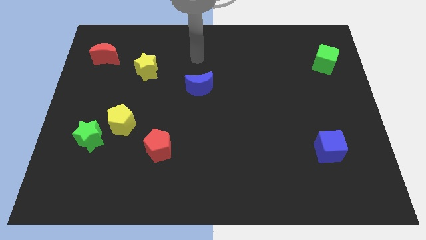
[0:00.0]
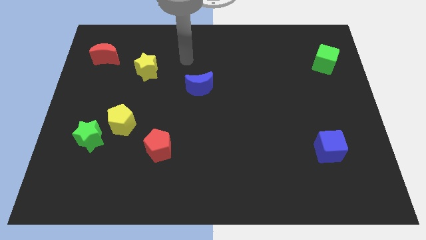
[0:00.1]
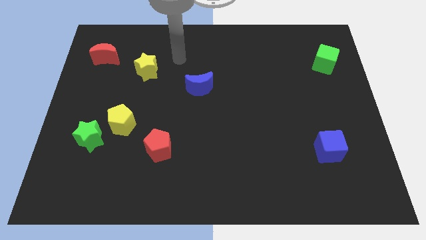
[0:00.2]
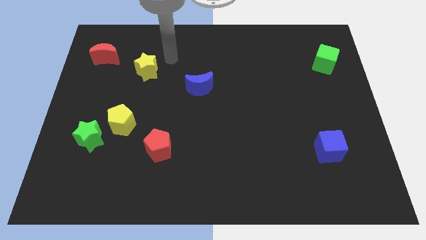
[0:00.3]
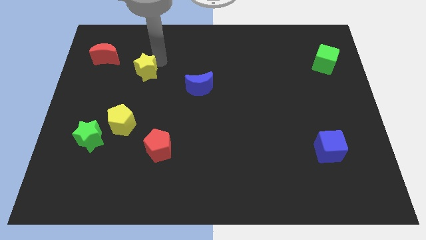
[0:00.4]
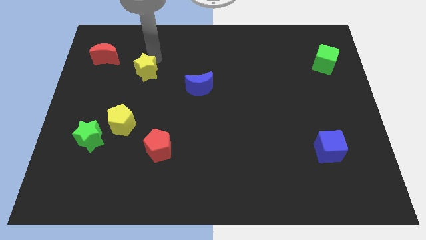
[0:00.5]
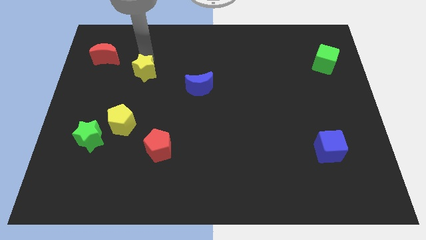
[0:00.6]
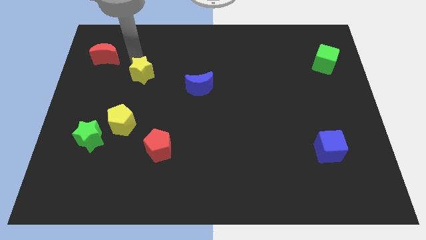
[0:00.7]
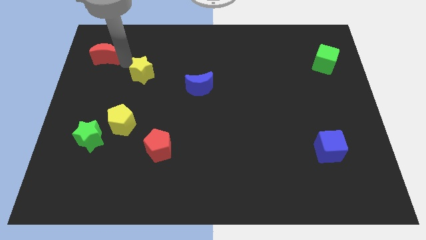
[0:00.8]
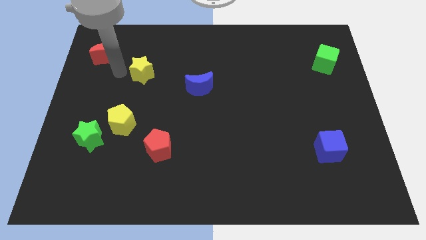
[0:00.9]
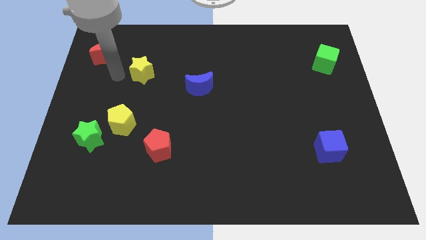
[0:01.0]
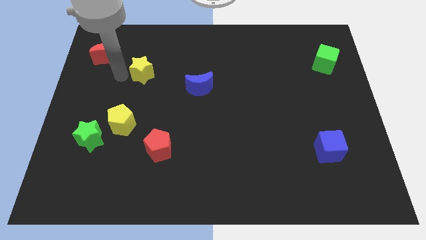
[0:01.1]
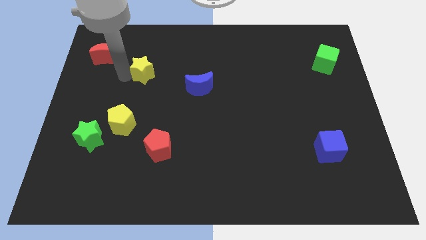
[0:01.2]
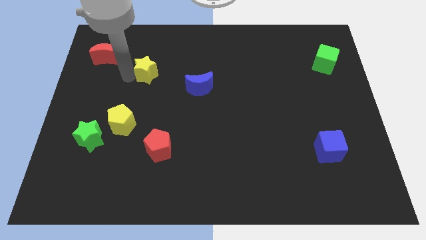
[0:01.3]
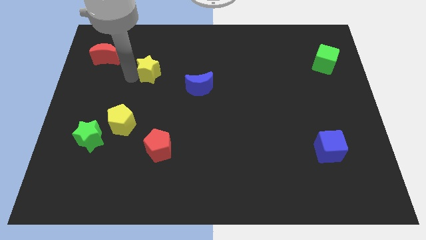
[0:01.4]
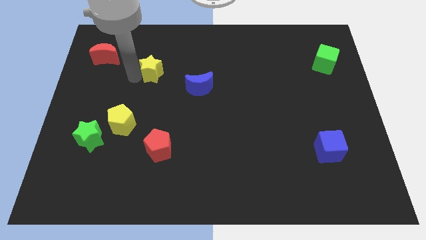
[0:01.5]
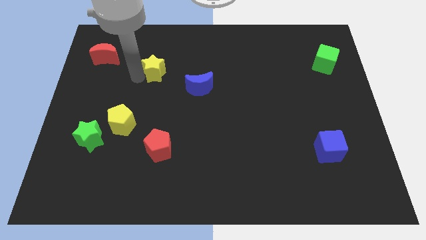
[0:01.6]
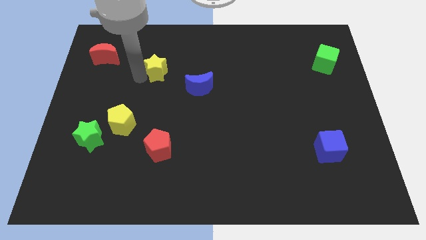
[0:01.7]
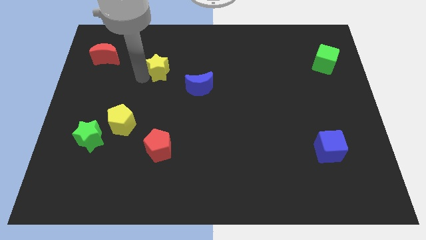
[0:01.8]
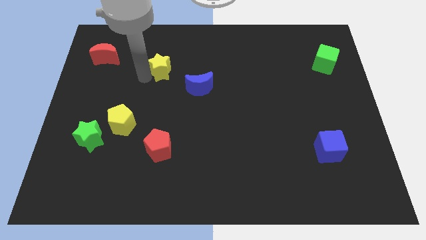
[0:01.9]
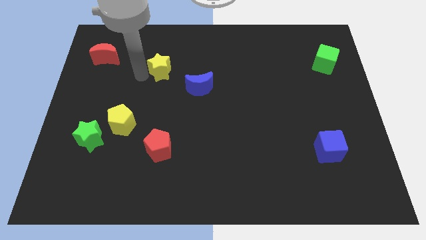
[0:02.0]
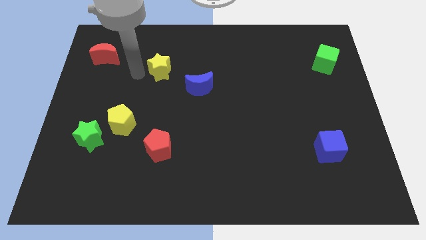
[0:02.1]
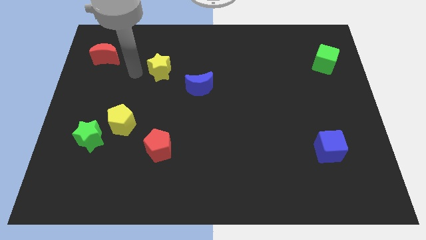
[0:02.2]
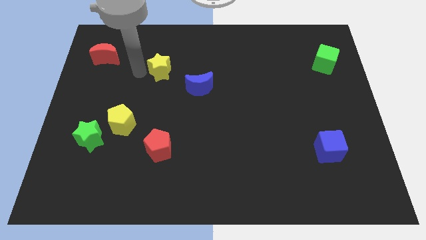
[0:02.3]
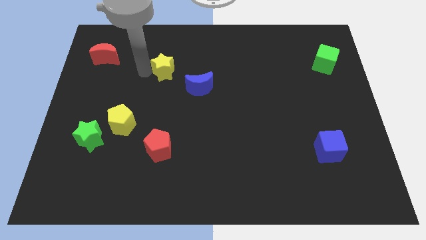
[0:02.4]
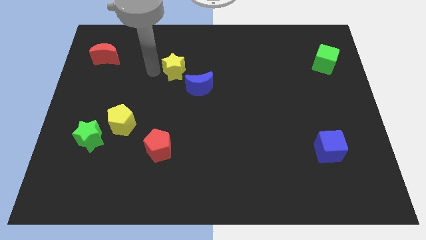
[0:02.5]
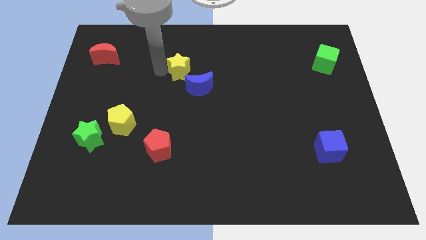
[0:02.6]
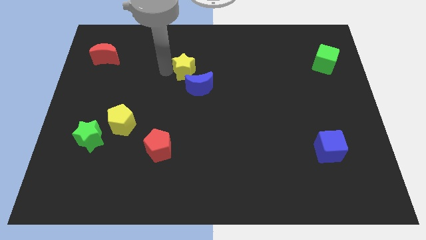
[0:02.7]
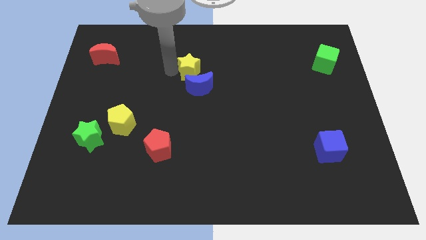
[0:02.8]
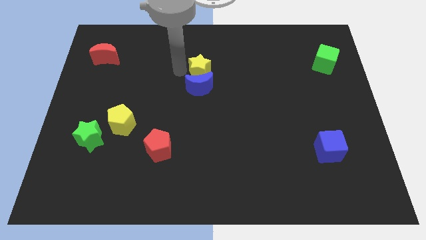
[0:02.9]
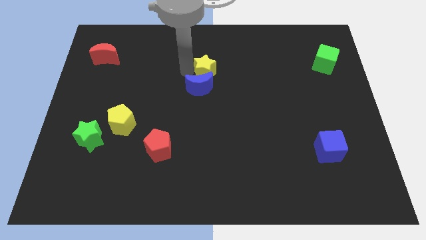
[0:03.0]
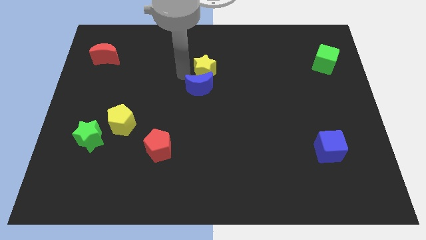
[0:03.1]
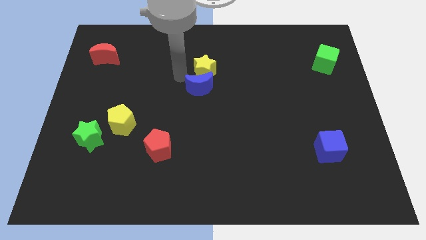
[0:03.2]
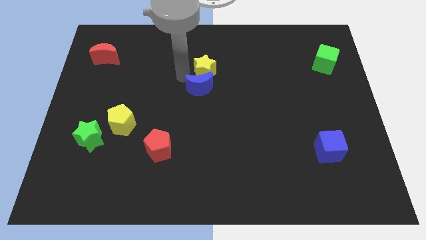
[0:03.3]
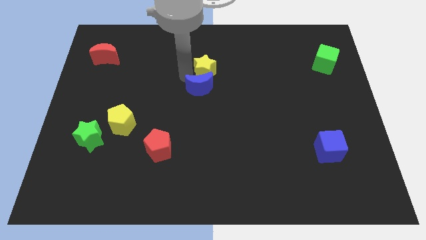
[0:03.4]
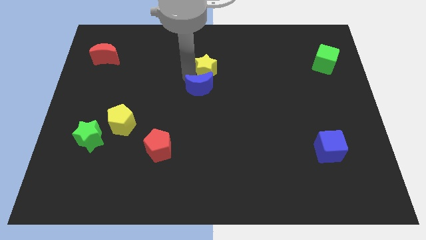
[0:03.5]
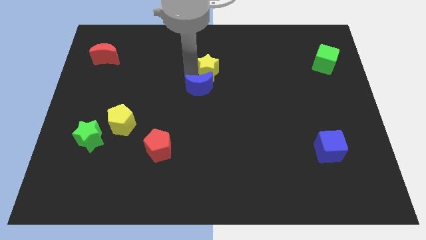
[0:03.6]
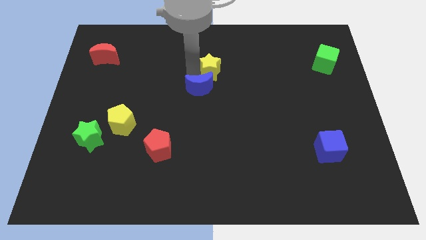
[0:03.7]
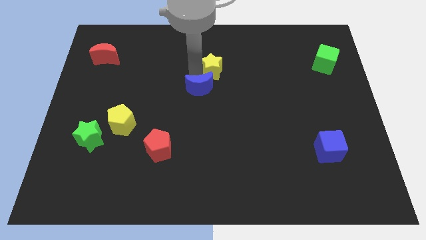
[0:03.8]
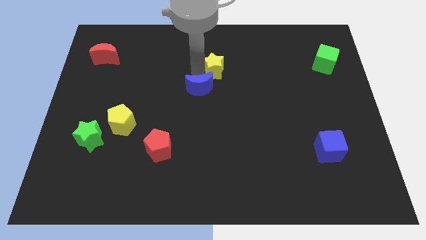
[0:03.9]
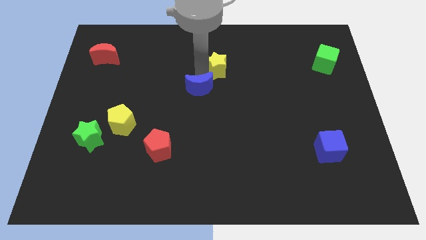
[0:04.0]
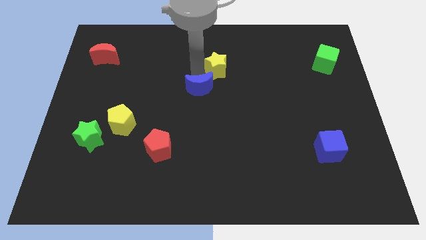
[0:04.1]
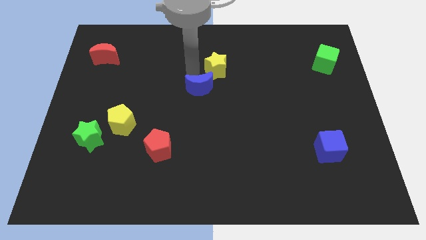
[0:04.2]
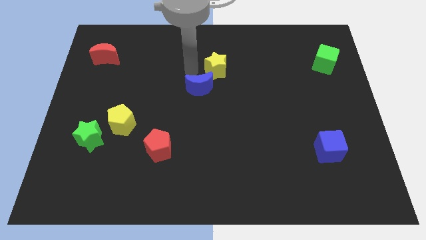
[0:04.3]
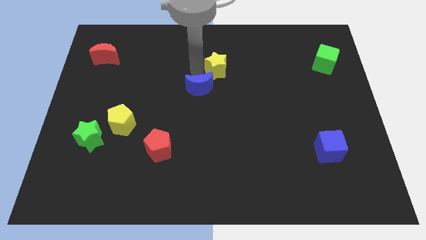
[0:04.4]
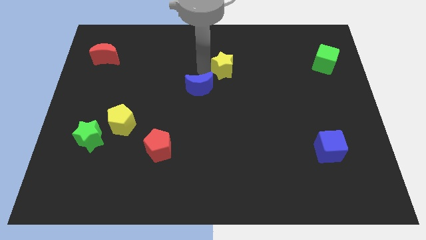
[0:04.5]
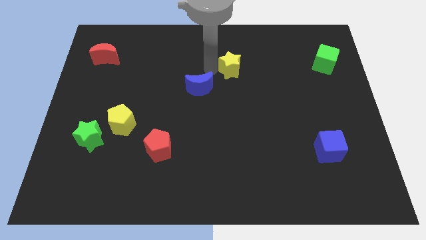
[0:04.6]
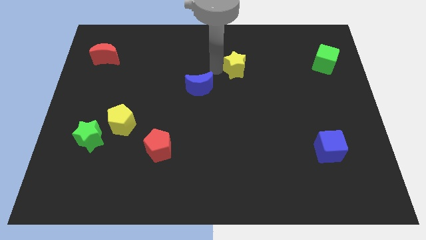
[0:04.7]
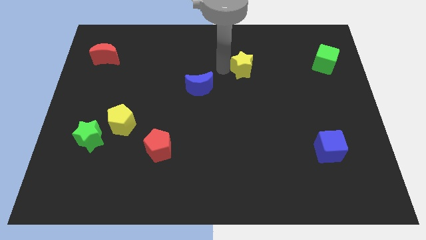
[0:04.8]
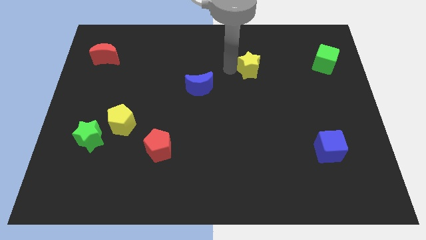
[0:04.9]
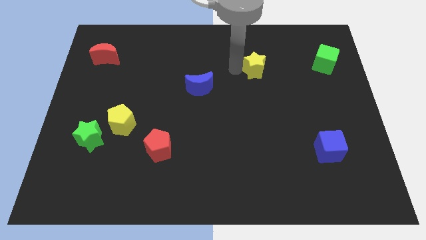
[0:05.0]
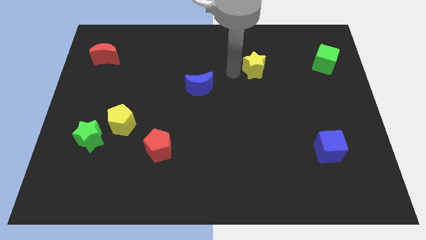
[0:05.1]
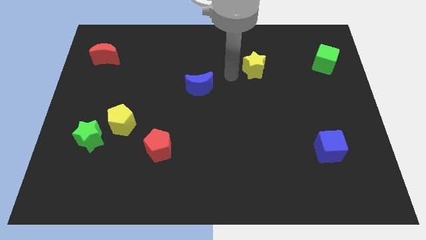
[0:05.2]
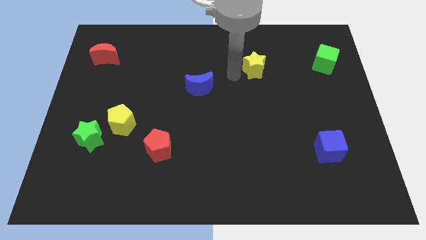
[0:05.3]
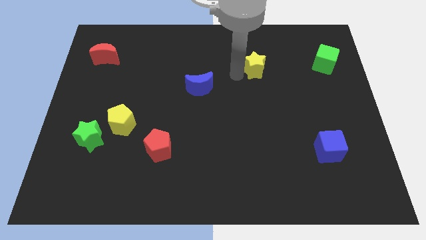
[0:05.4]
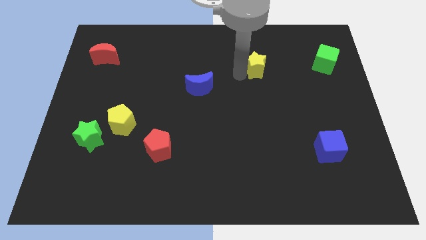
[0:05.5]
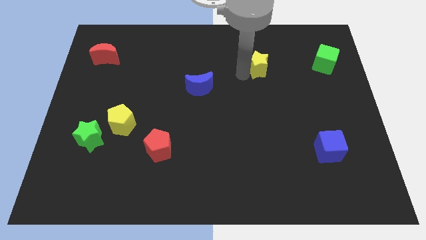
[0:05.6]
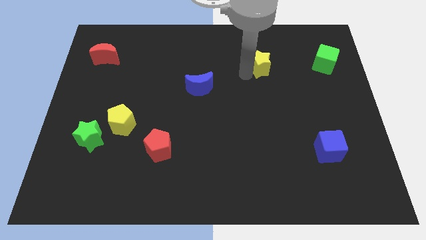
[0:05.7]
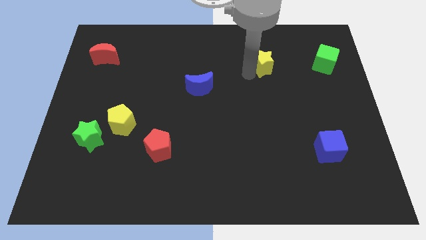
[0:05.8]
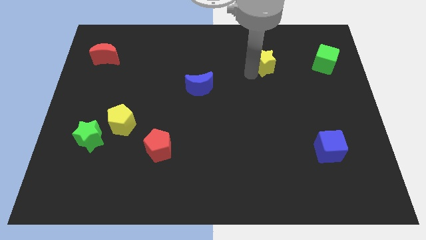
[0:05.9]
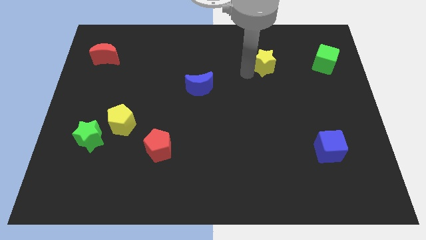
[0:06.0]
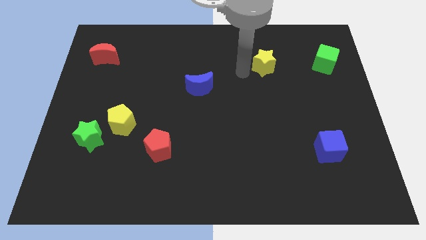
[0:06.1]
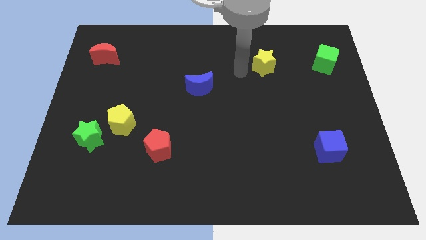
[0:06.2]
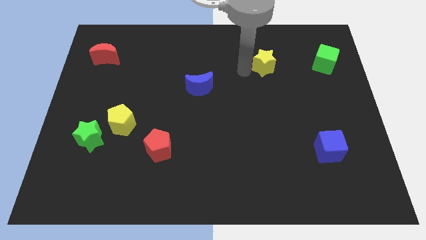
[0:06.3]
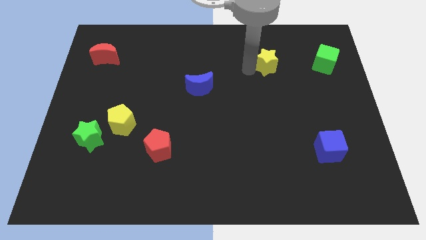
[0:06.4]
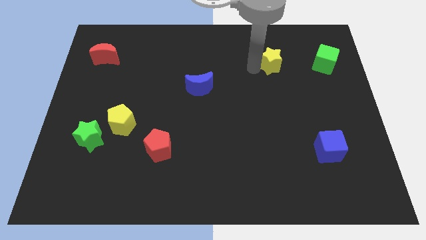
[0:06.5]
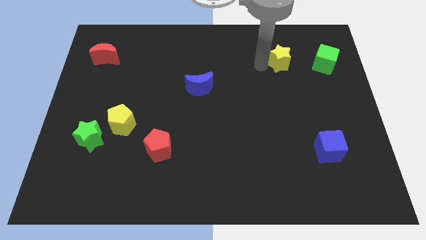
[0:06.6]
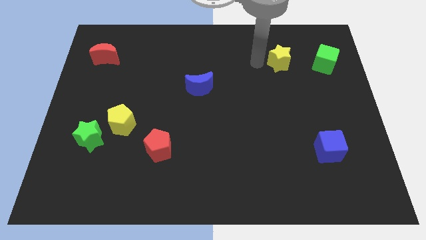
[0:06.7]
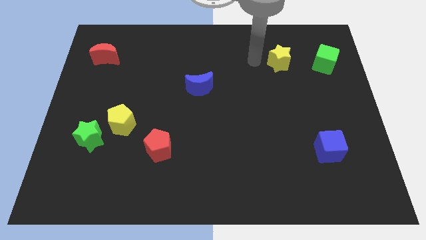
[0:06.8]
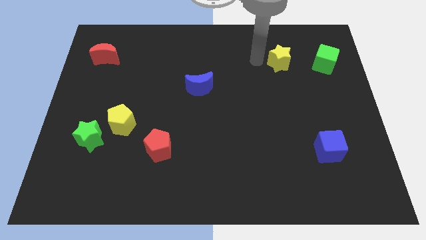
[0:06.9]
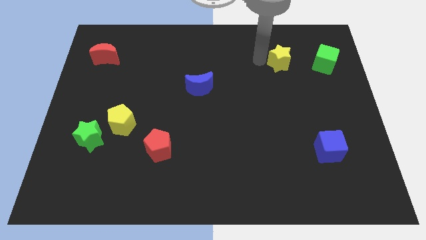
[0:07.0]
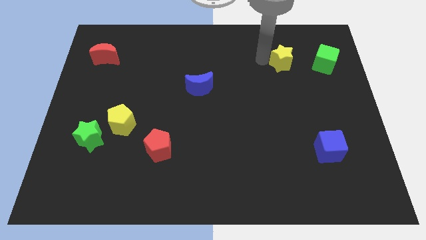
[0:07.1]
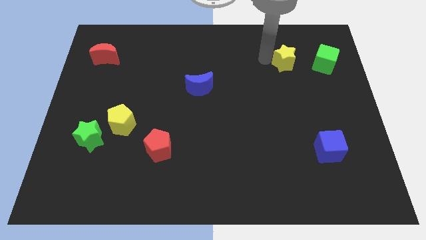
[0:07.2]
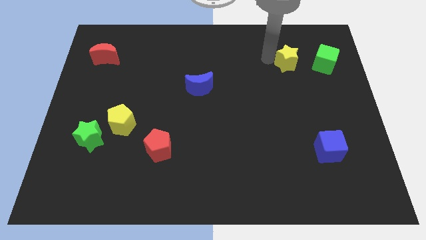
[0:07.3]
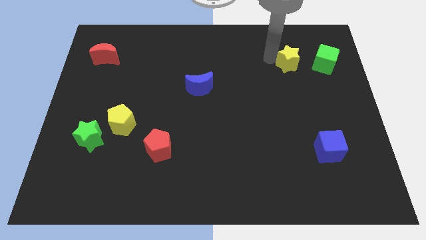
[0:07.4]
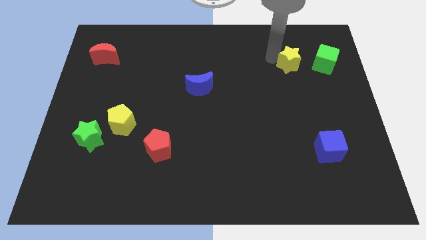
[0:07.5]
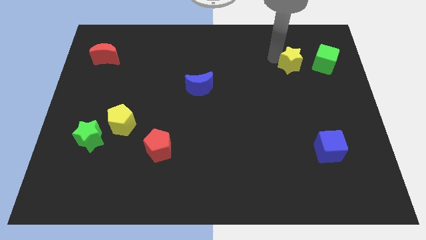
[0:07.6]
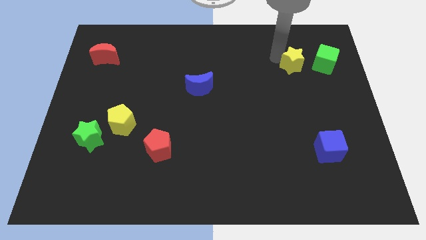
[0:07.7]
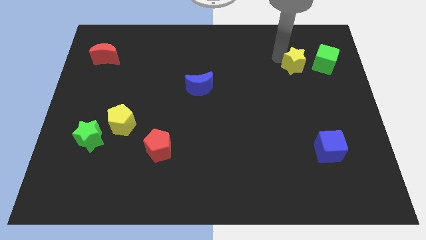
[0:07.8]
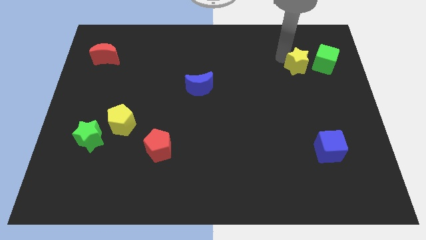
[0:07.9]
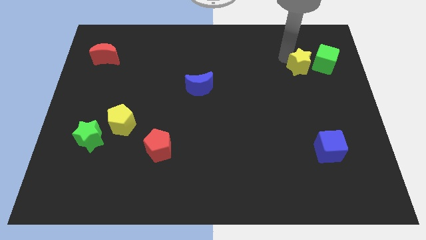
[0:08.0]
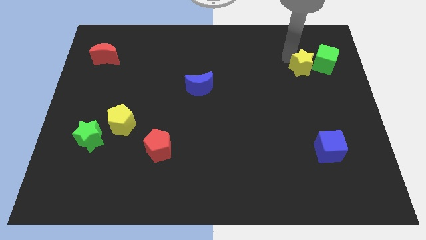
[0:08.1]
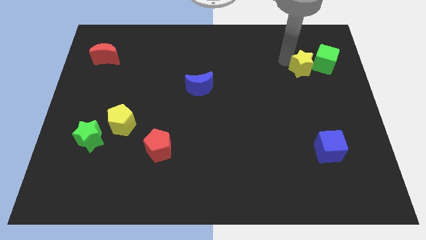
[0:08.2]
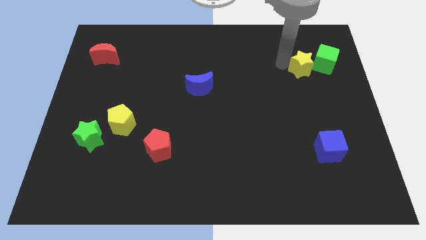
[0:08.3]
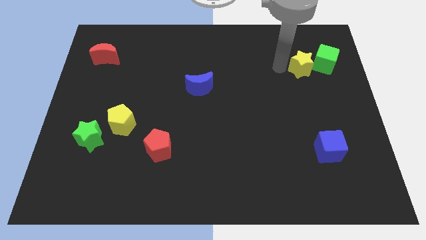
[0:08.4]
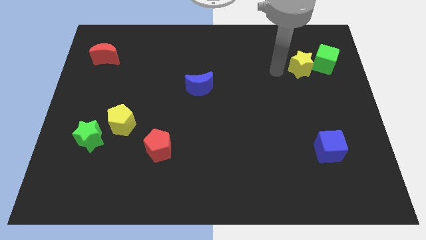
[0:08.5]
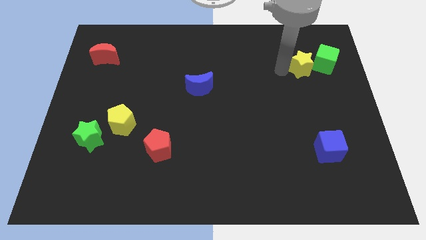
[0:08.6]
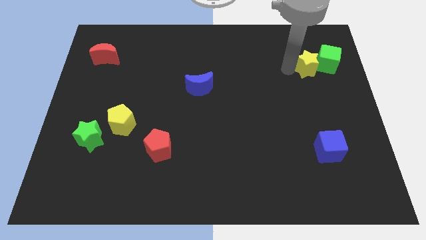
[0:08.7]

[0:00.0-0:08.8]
slide the yellow star close to the green cube
